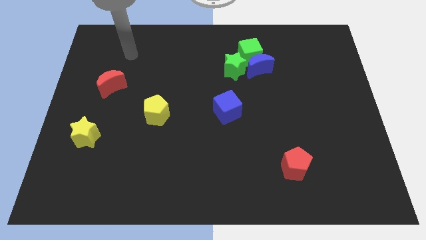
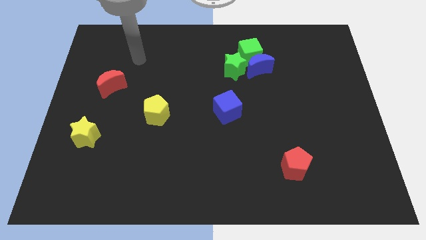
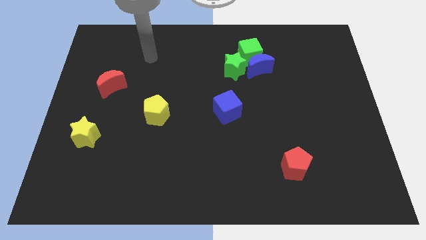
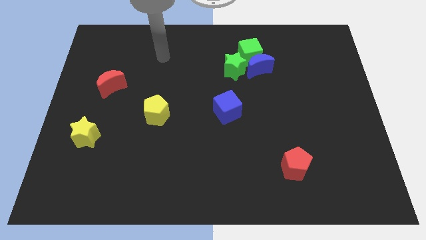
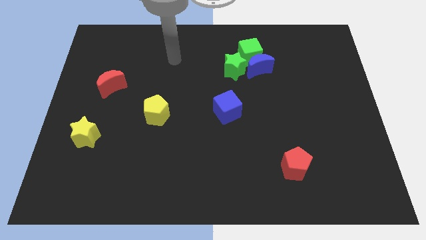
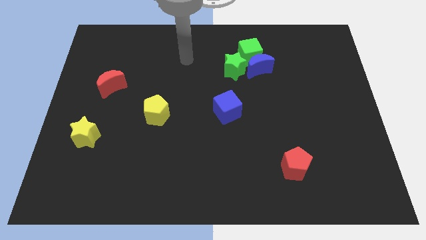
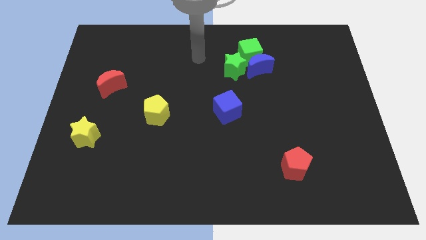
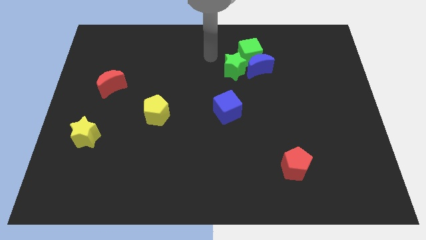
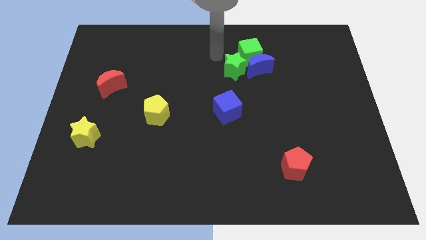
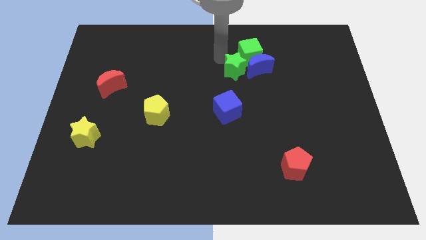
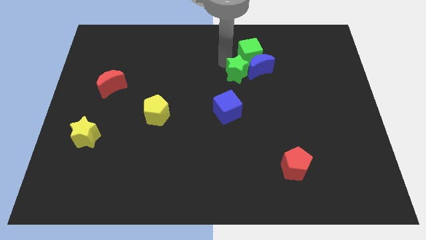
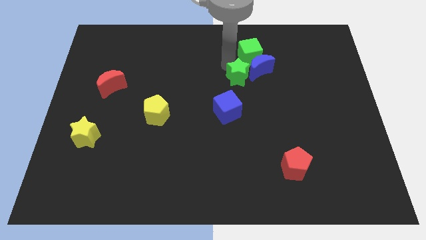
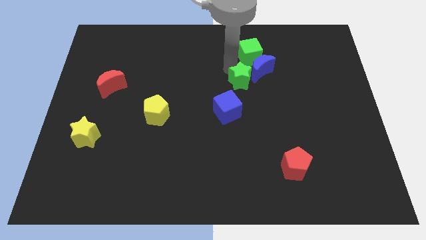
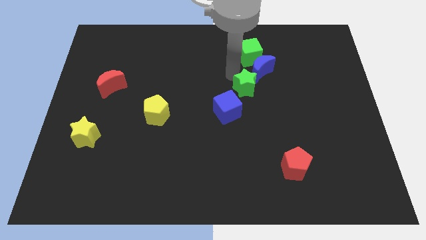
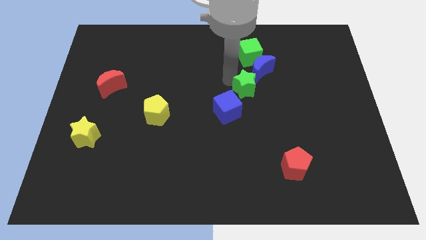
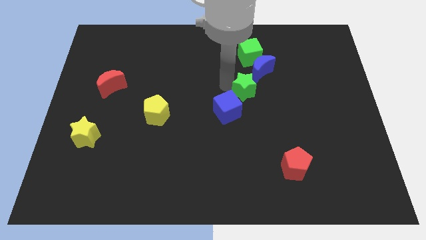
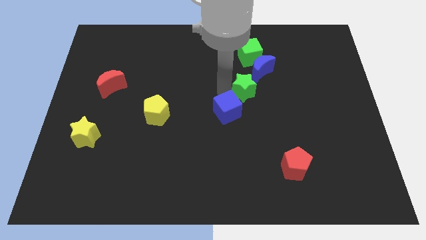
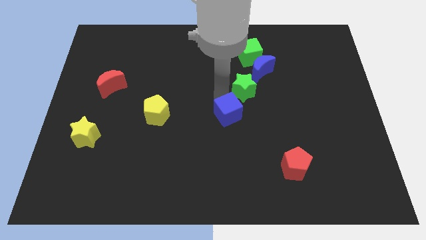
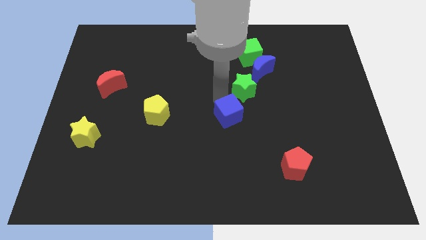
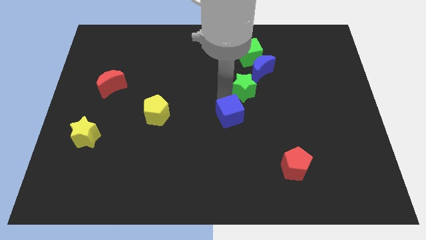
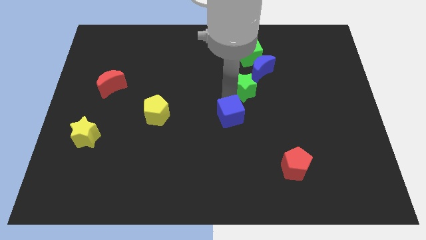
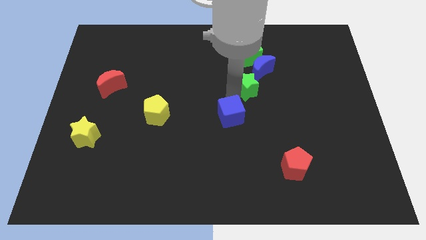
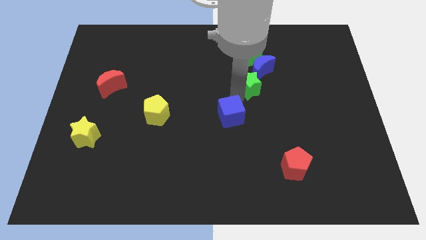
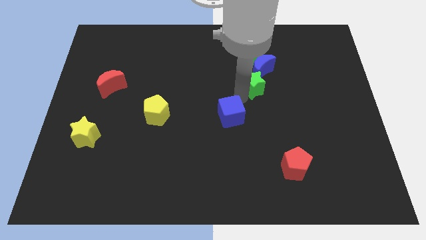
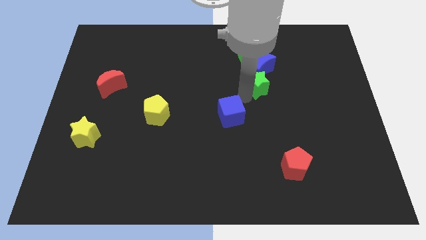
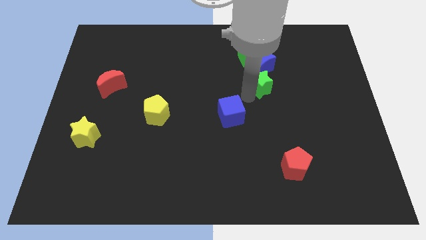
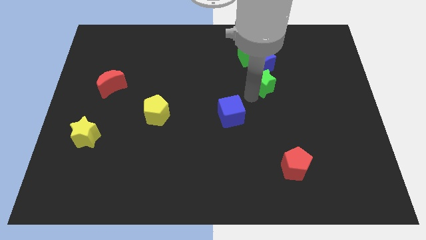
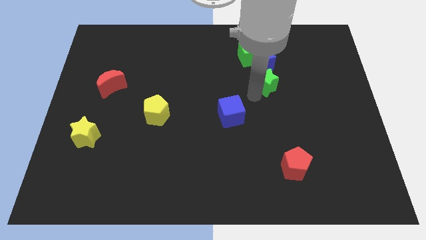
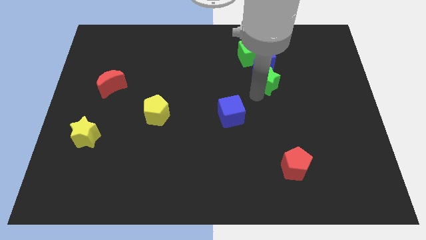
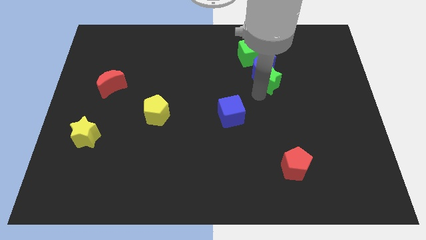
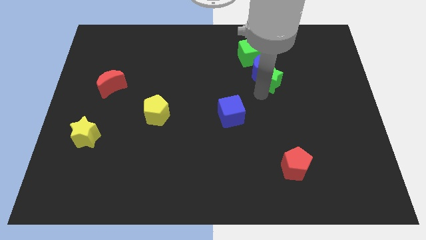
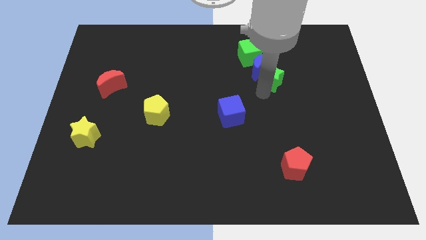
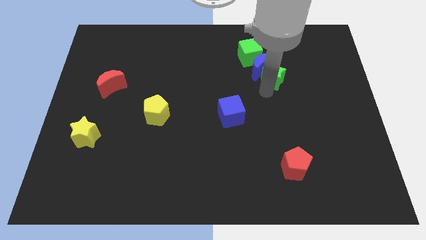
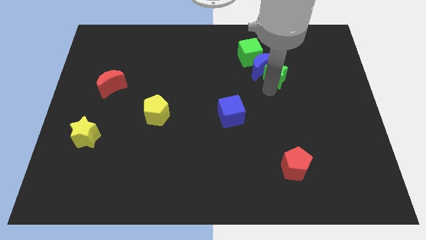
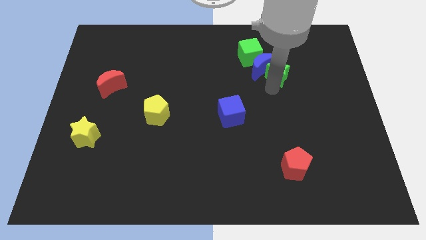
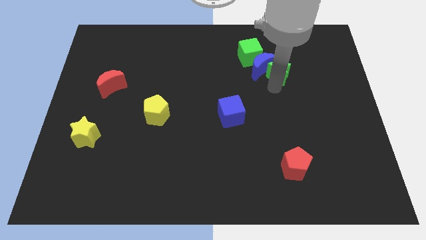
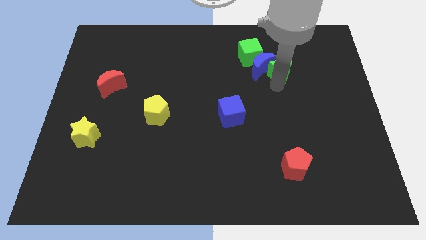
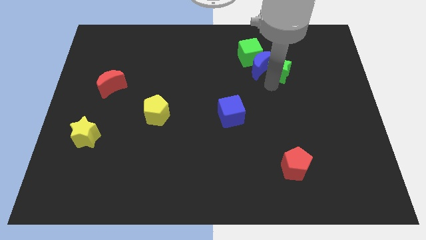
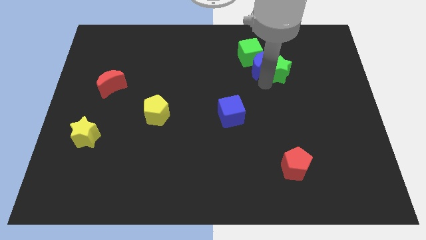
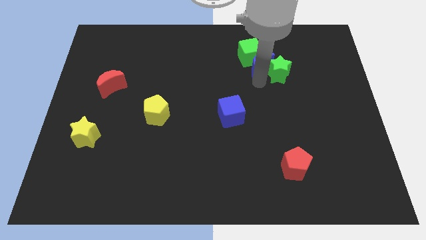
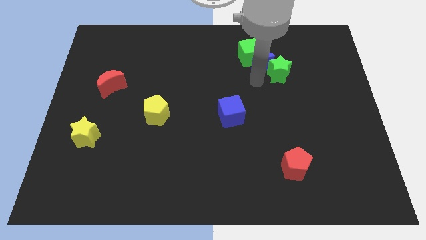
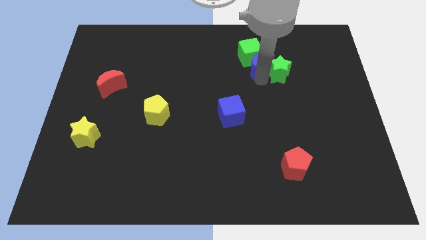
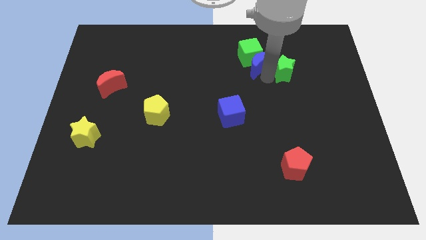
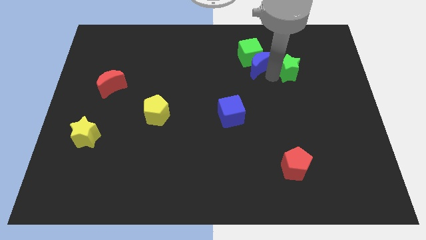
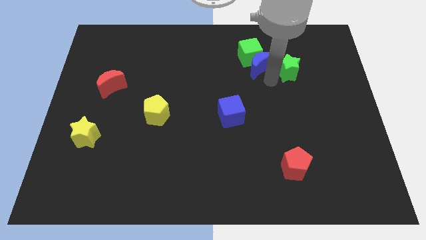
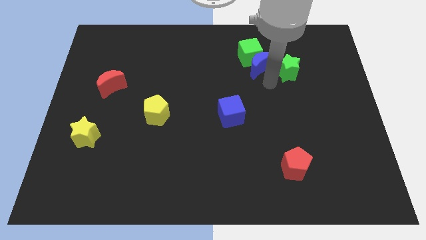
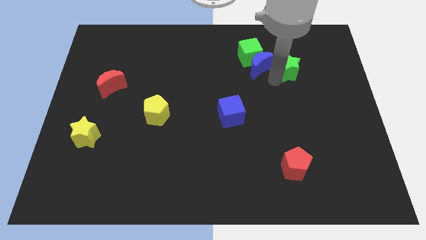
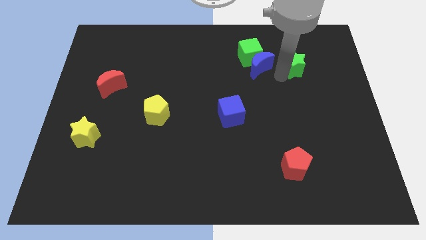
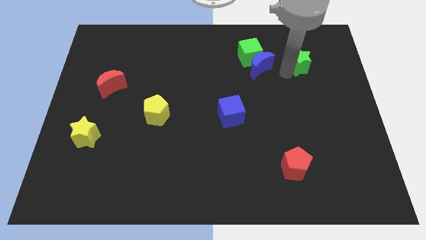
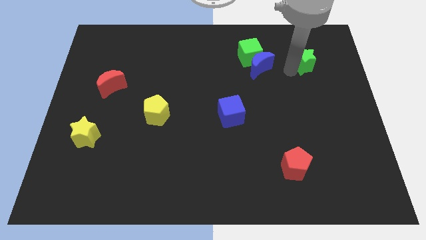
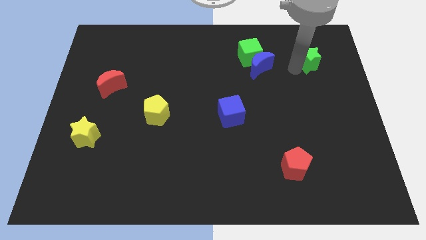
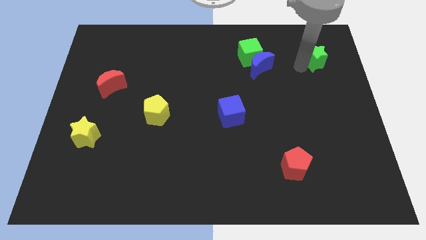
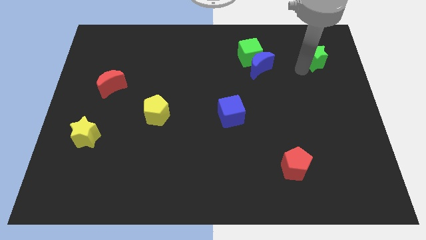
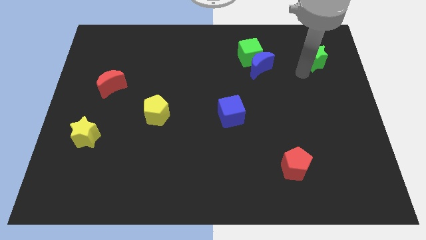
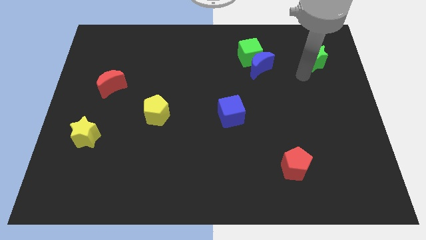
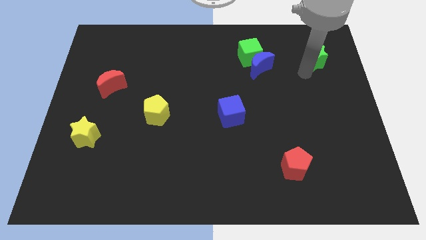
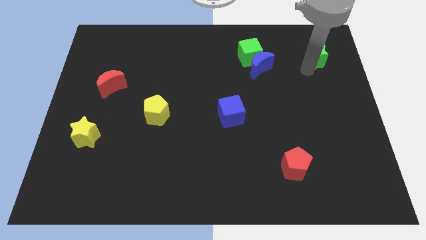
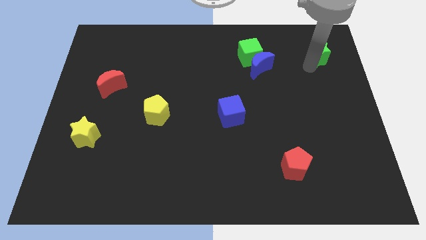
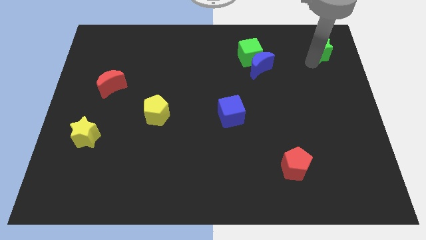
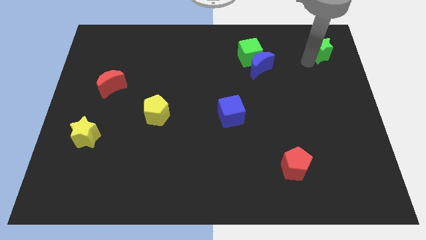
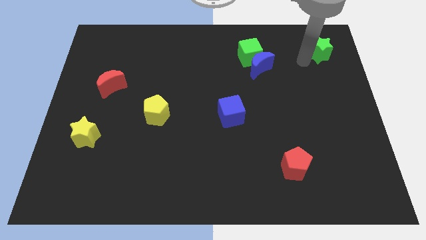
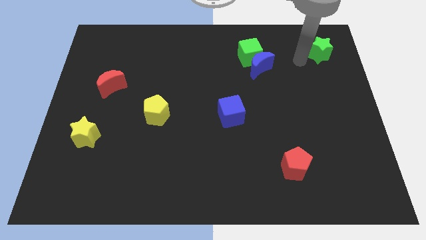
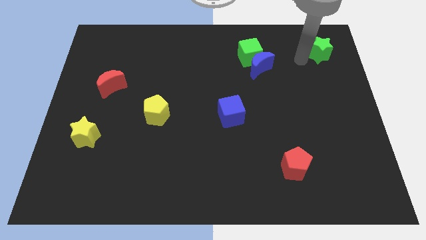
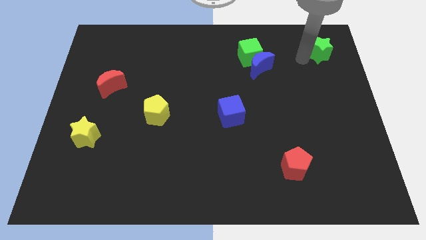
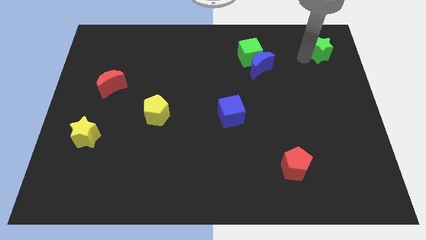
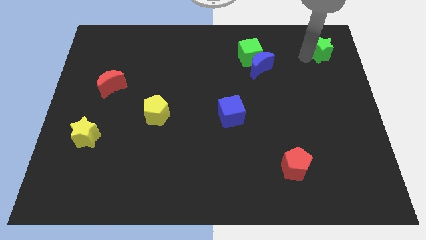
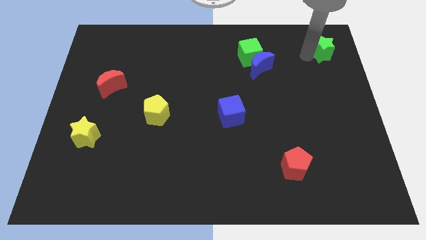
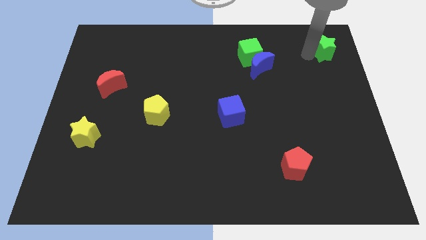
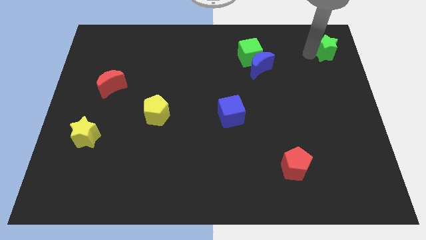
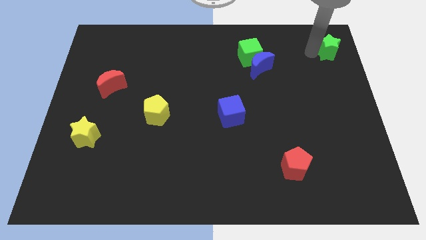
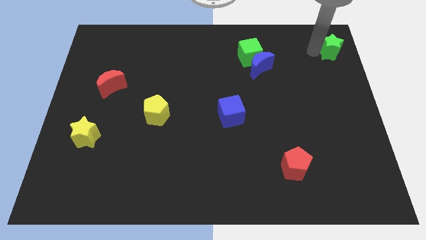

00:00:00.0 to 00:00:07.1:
push the green star to the top right of the board

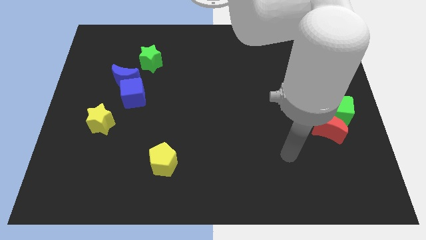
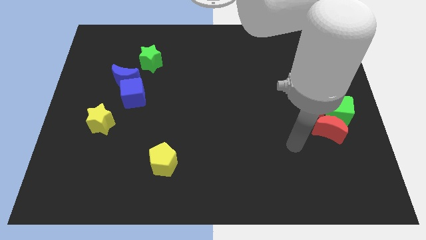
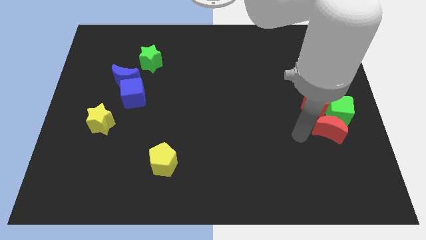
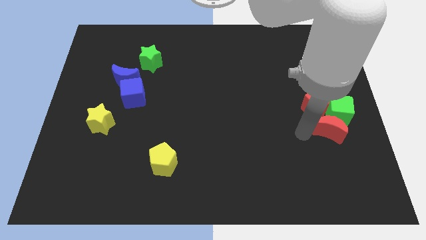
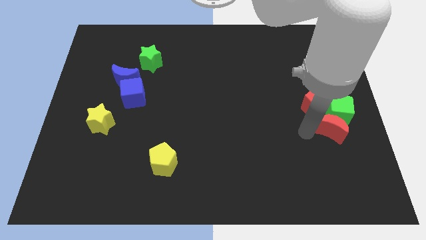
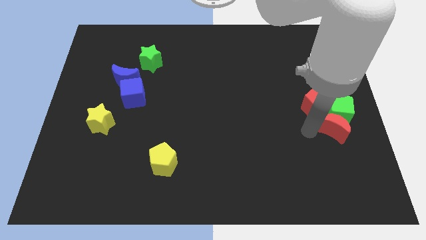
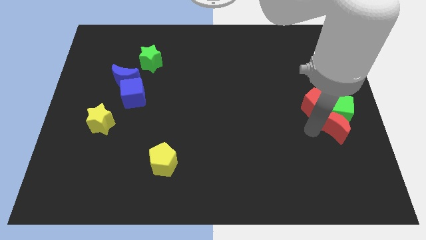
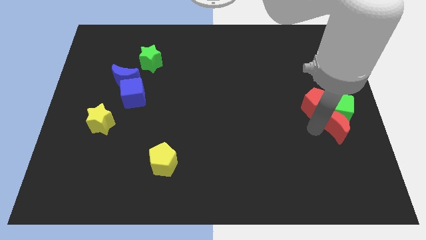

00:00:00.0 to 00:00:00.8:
move the red moon to the right side of the board
